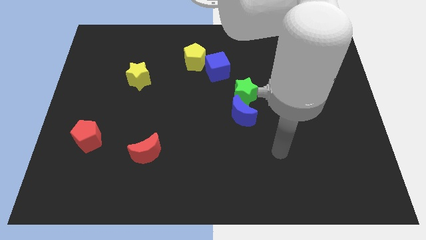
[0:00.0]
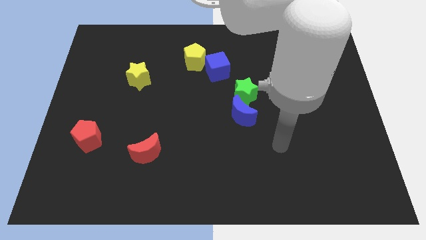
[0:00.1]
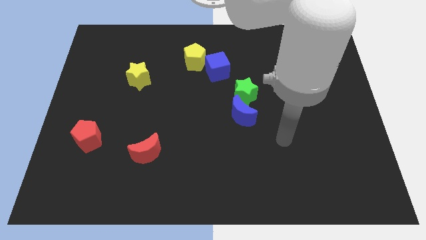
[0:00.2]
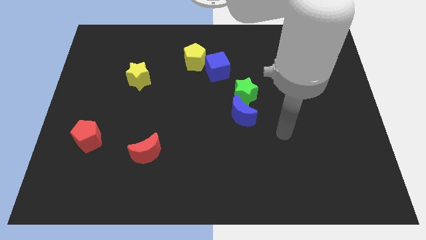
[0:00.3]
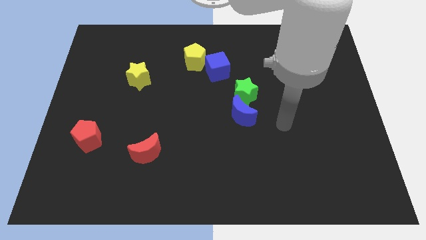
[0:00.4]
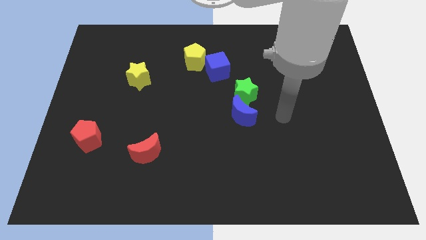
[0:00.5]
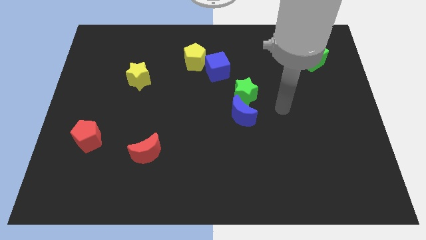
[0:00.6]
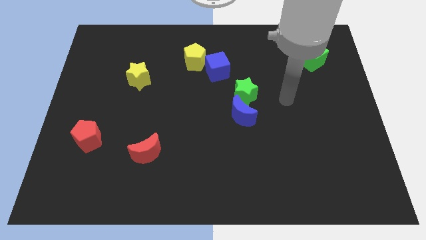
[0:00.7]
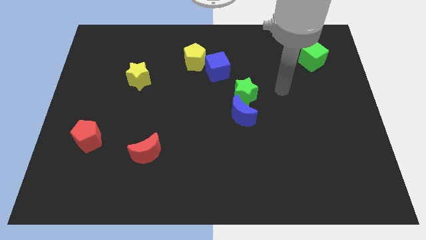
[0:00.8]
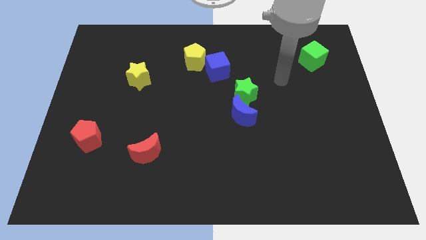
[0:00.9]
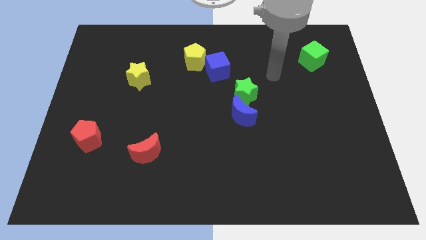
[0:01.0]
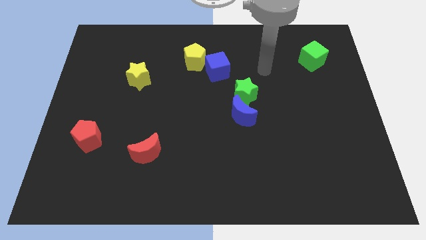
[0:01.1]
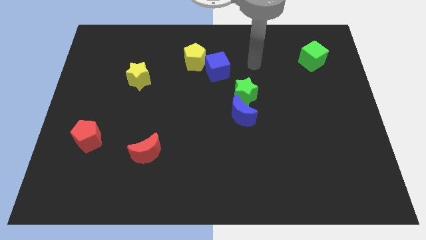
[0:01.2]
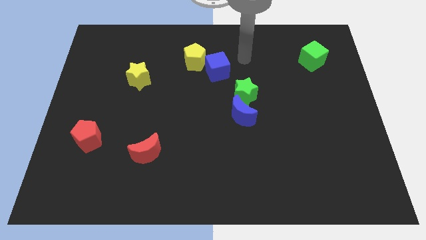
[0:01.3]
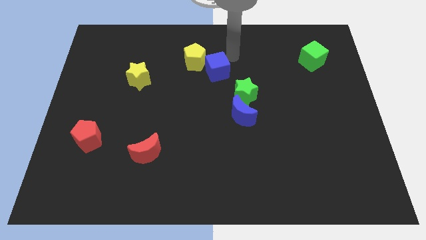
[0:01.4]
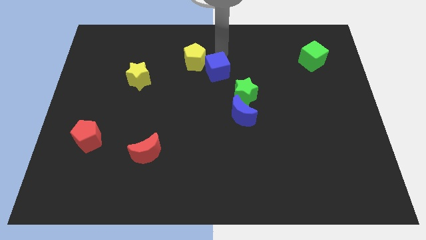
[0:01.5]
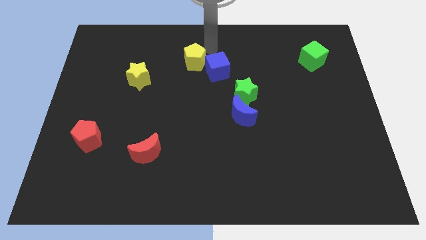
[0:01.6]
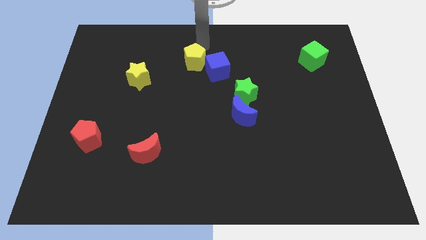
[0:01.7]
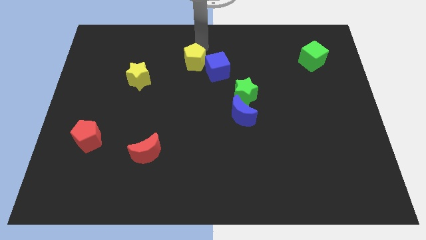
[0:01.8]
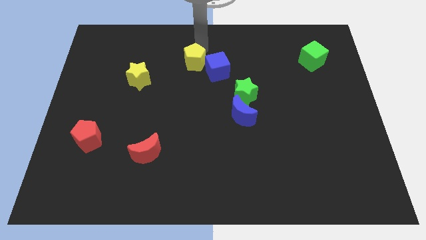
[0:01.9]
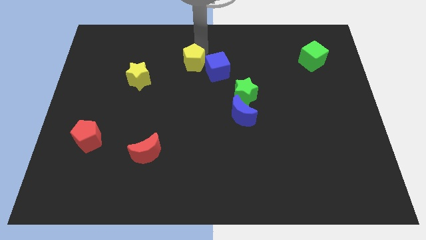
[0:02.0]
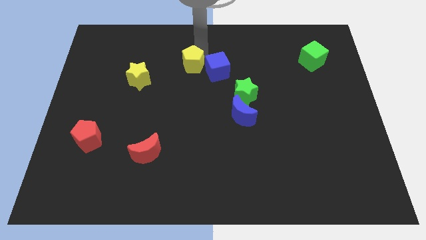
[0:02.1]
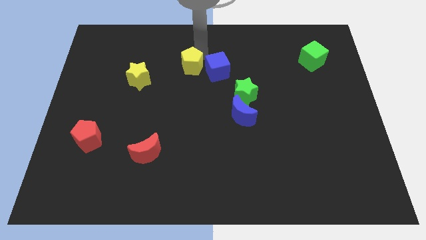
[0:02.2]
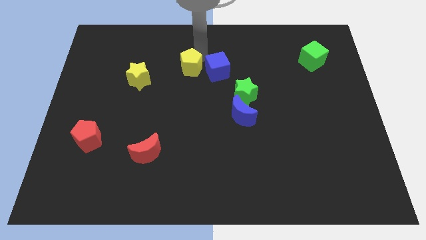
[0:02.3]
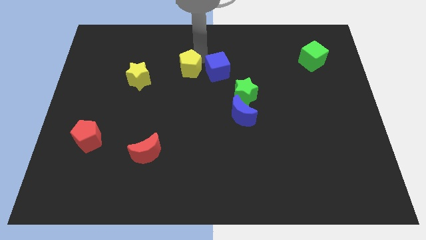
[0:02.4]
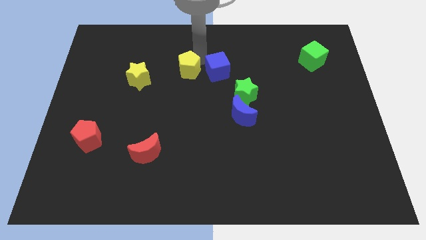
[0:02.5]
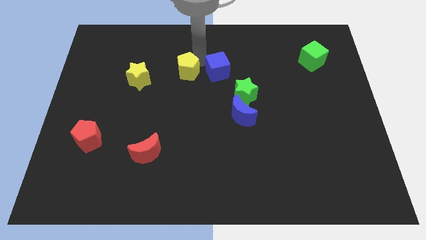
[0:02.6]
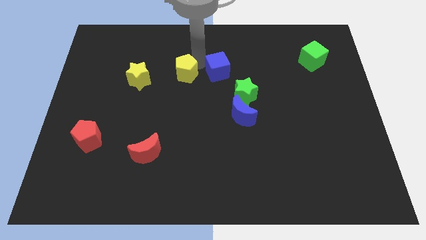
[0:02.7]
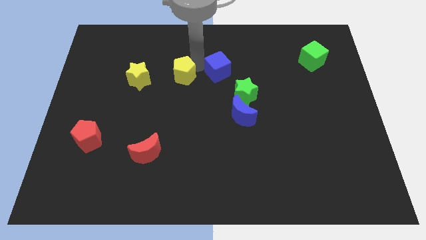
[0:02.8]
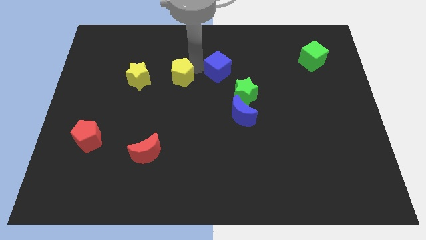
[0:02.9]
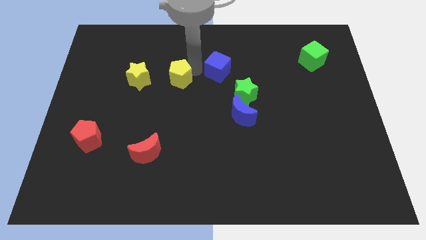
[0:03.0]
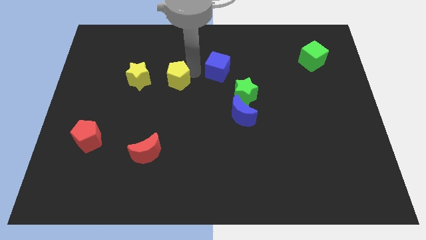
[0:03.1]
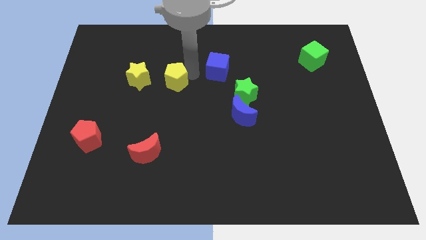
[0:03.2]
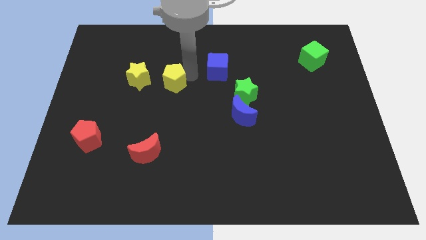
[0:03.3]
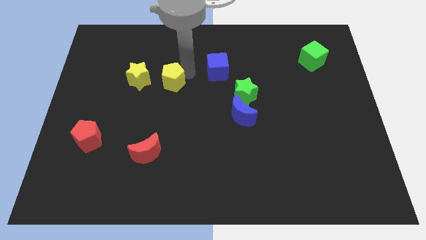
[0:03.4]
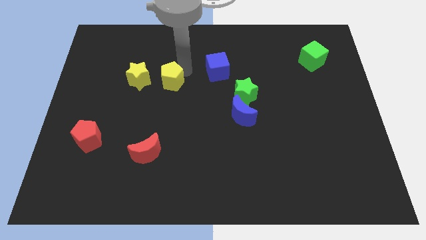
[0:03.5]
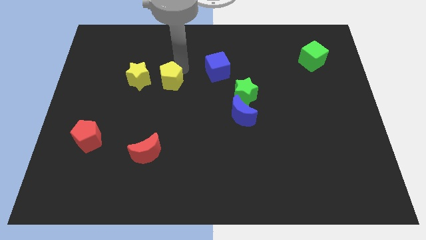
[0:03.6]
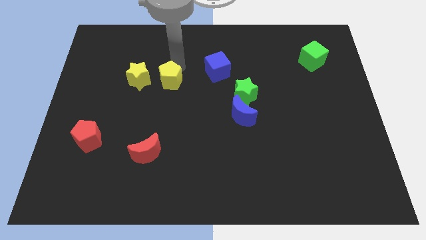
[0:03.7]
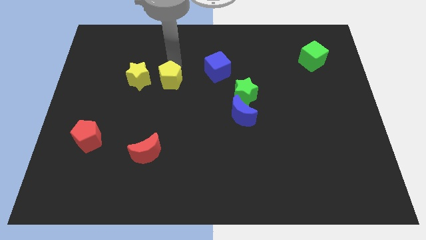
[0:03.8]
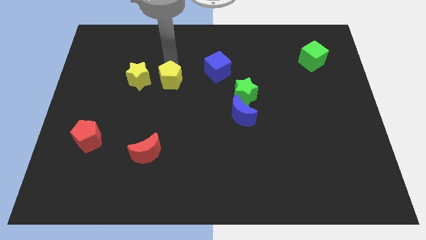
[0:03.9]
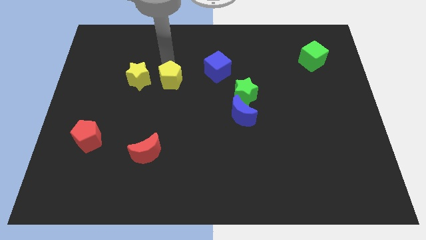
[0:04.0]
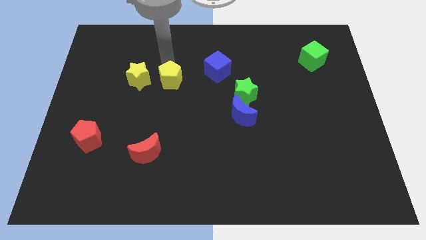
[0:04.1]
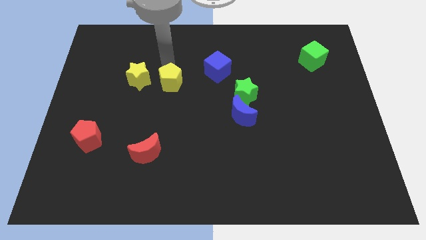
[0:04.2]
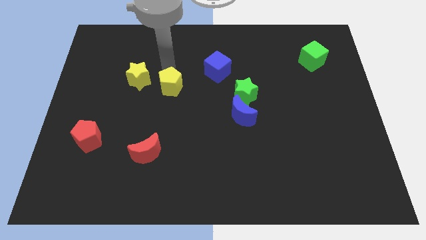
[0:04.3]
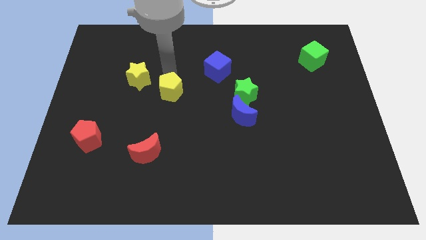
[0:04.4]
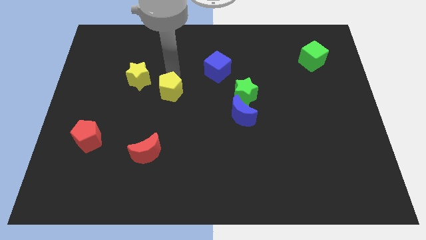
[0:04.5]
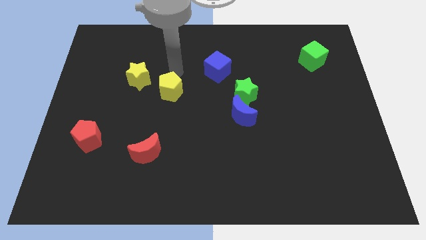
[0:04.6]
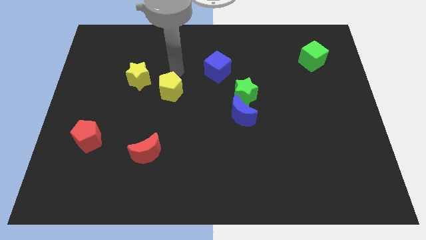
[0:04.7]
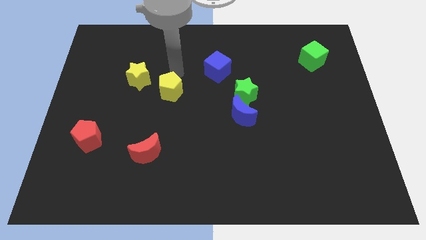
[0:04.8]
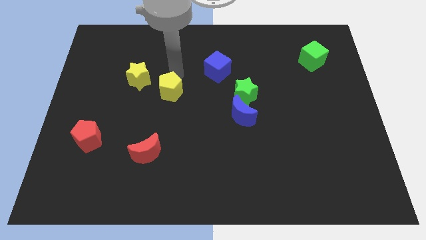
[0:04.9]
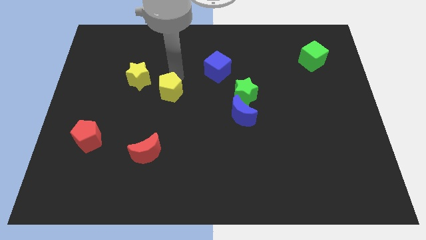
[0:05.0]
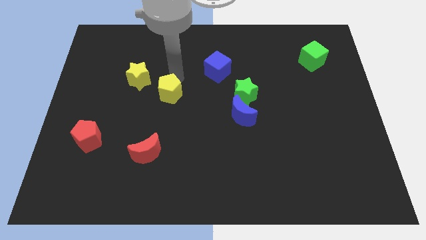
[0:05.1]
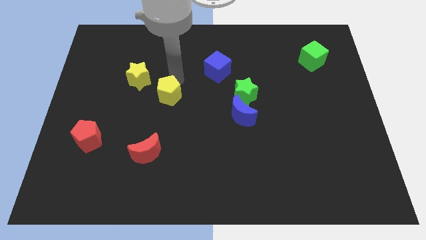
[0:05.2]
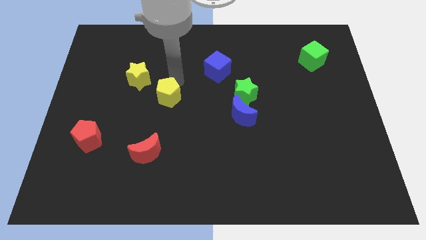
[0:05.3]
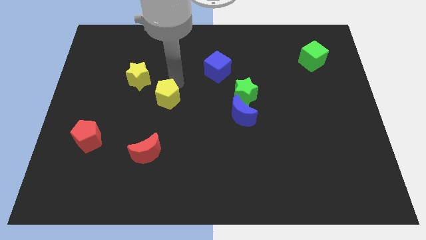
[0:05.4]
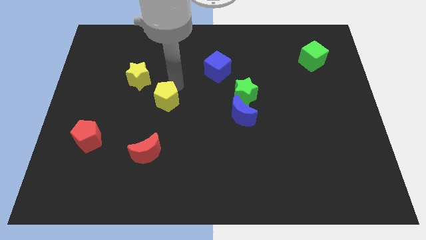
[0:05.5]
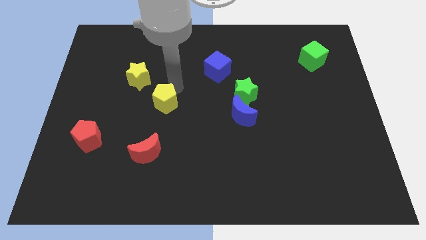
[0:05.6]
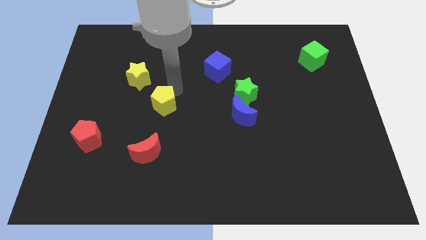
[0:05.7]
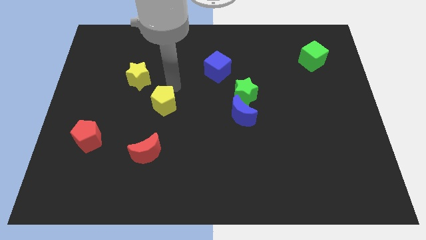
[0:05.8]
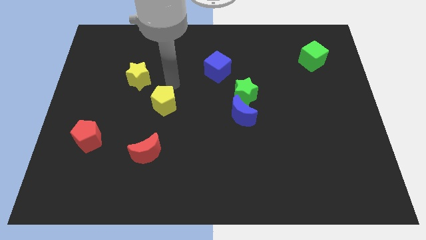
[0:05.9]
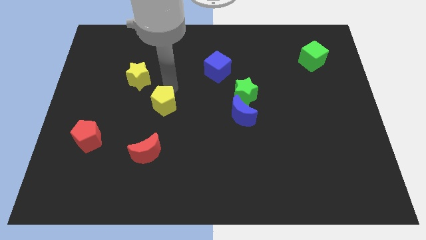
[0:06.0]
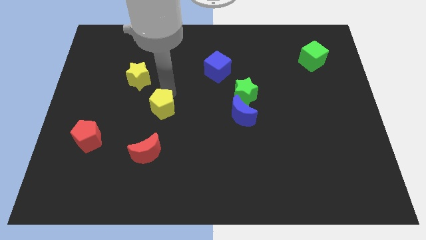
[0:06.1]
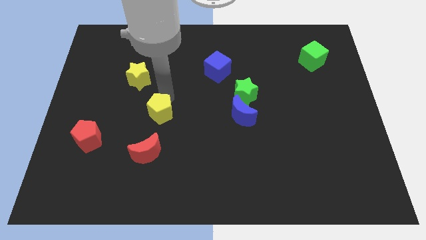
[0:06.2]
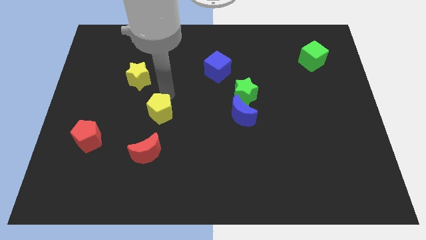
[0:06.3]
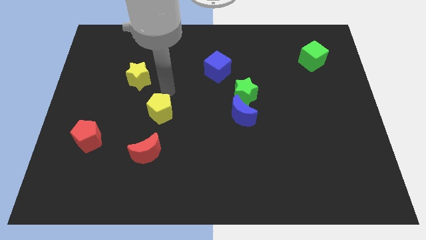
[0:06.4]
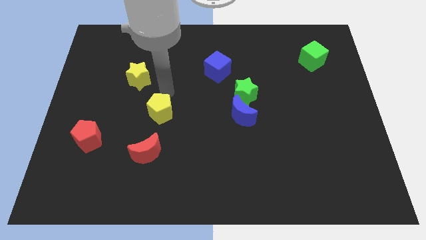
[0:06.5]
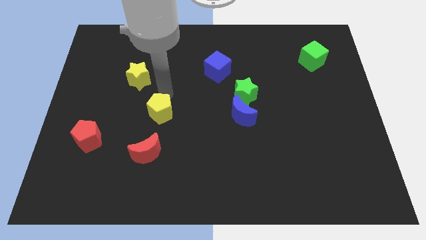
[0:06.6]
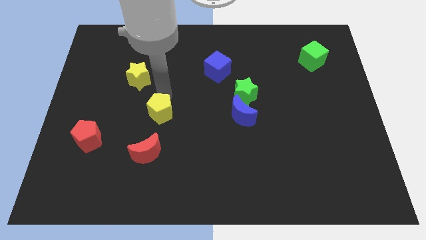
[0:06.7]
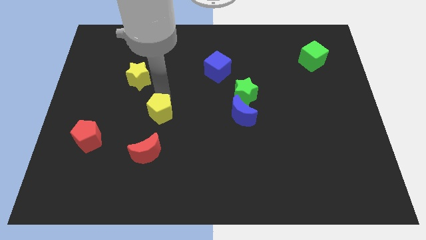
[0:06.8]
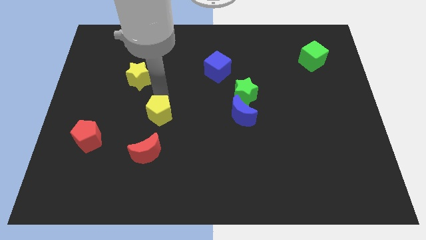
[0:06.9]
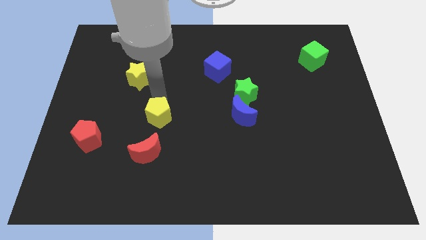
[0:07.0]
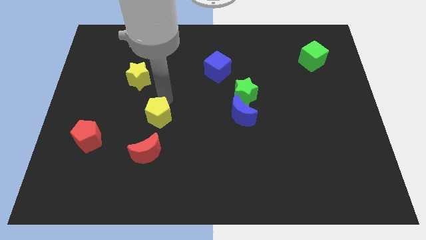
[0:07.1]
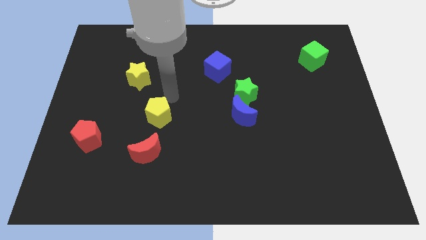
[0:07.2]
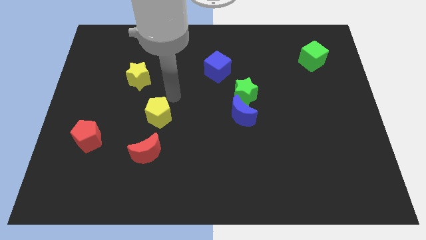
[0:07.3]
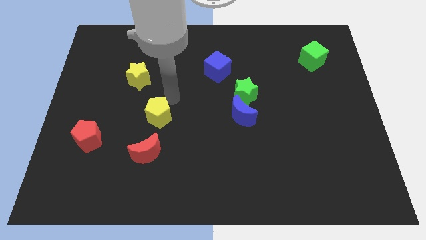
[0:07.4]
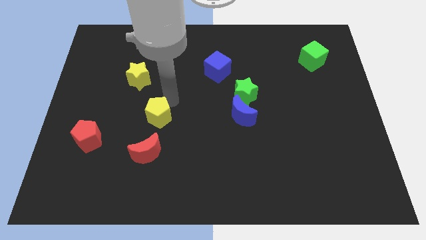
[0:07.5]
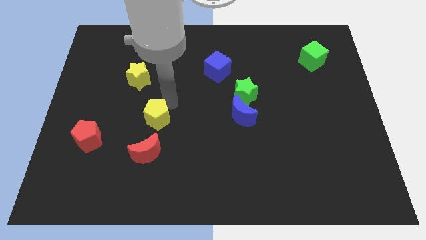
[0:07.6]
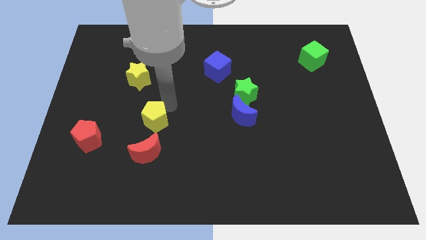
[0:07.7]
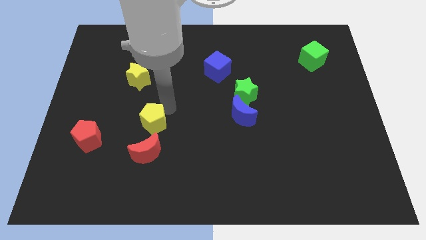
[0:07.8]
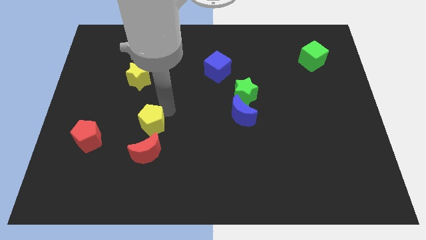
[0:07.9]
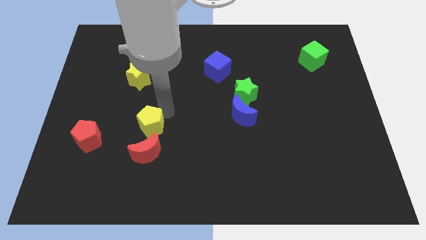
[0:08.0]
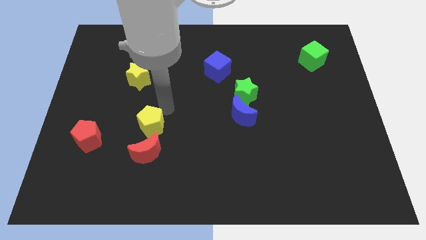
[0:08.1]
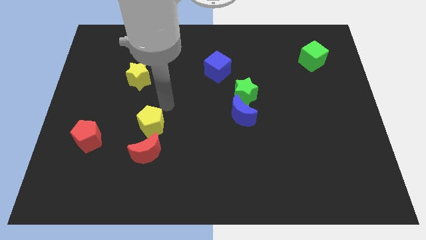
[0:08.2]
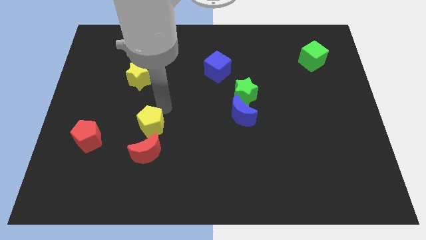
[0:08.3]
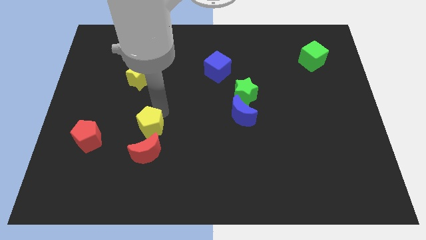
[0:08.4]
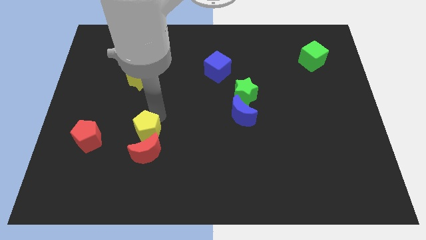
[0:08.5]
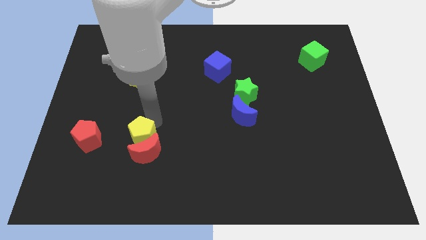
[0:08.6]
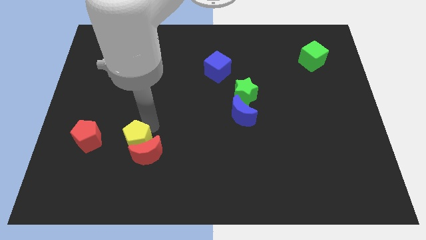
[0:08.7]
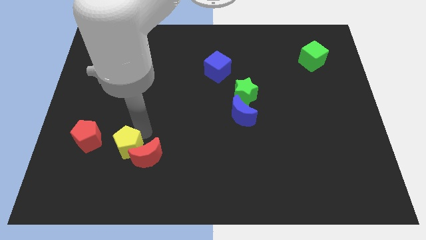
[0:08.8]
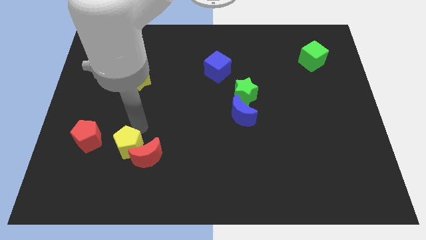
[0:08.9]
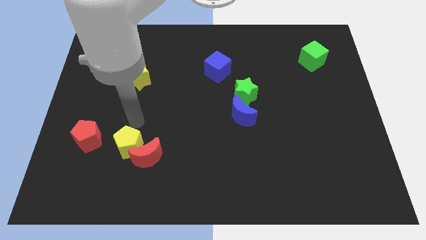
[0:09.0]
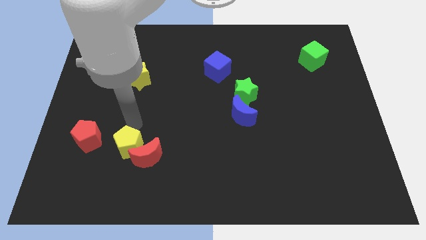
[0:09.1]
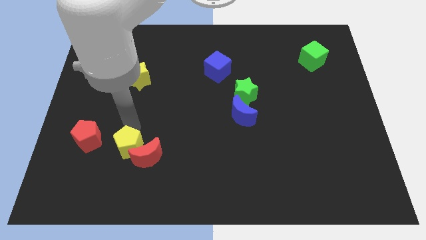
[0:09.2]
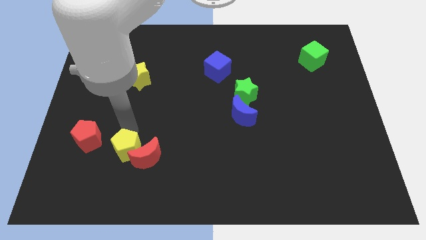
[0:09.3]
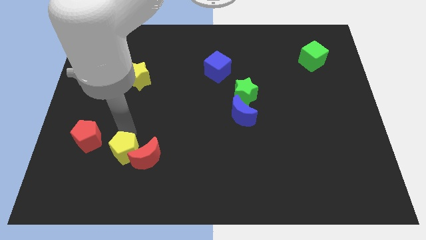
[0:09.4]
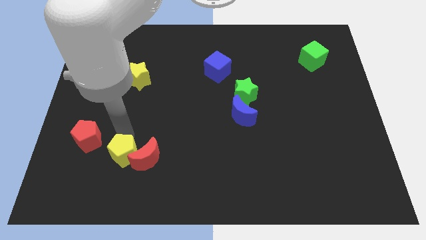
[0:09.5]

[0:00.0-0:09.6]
move the yellow pentagon to the bottom left of the red moon
